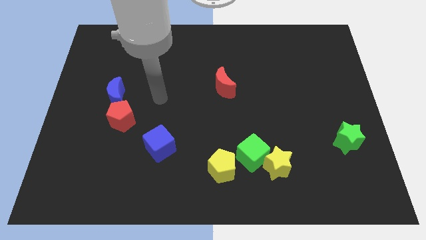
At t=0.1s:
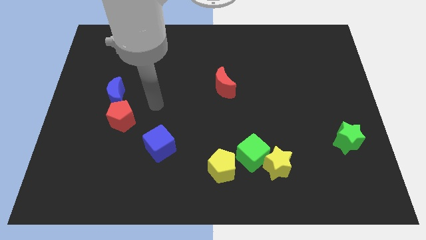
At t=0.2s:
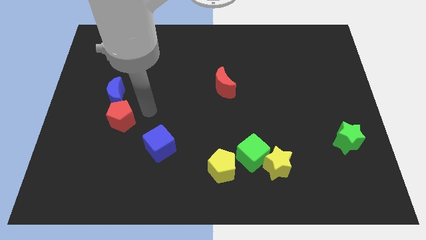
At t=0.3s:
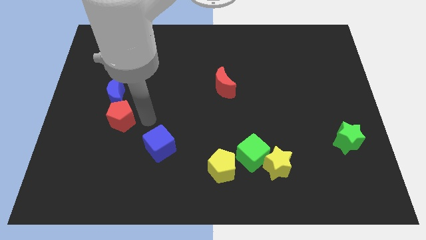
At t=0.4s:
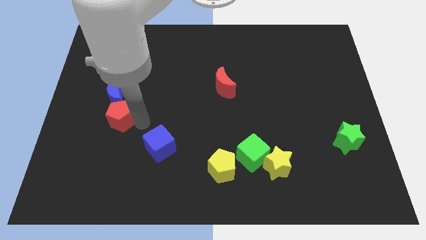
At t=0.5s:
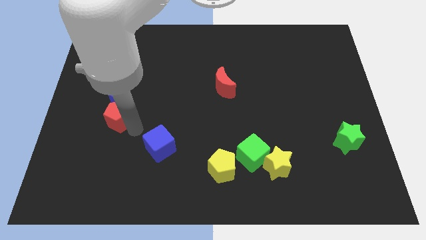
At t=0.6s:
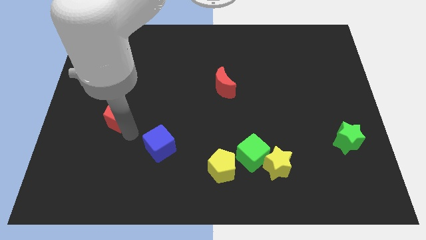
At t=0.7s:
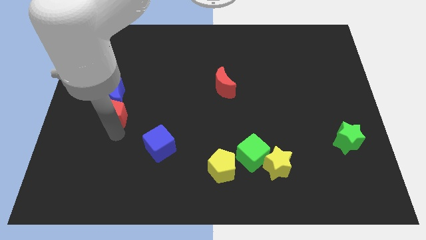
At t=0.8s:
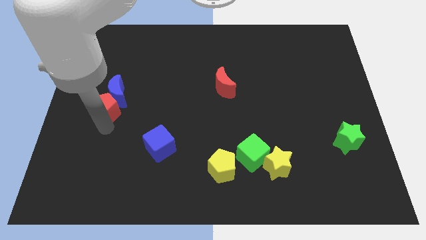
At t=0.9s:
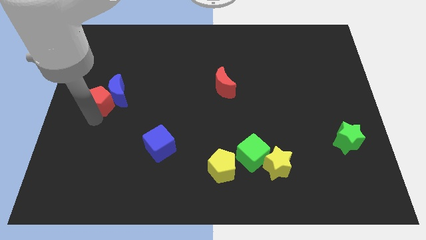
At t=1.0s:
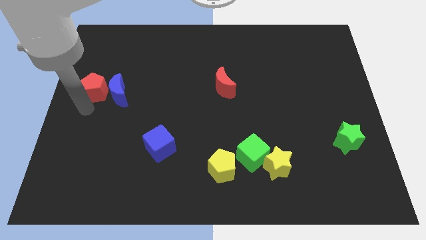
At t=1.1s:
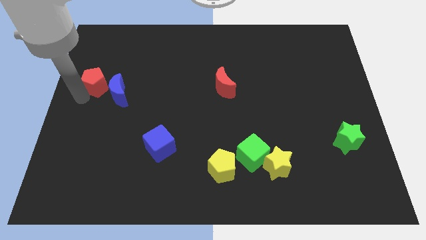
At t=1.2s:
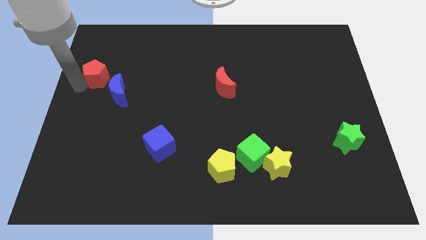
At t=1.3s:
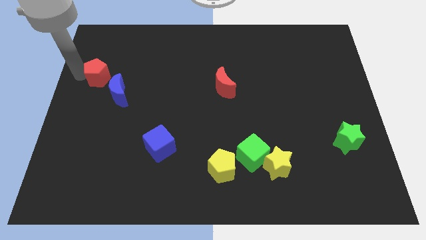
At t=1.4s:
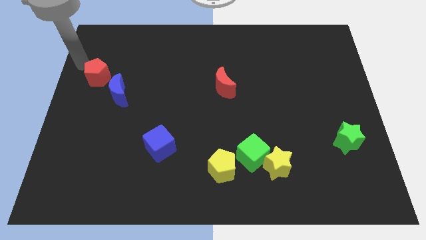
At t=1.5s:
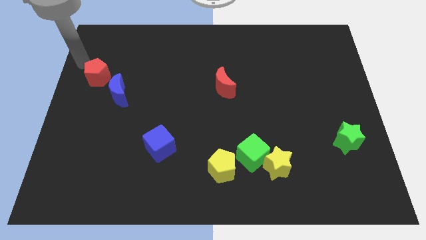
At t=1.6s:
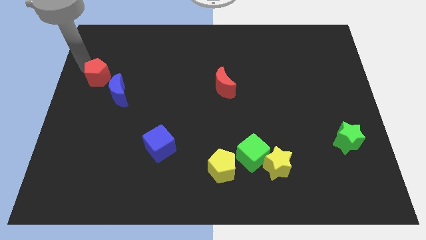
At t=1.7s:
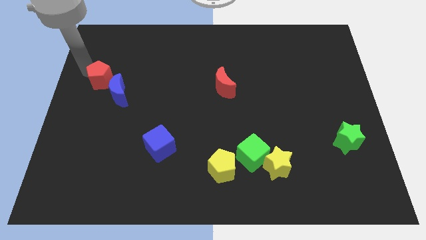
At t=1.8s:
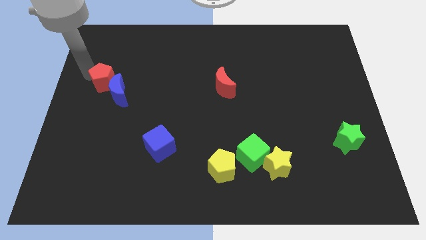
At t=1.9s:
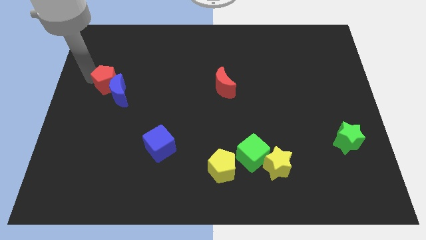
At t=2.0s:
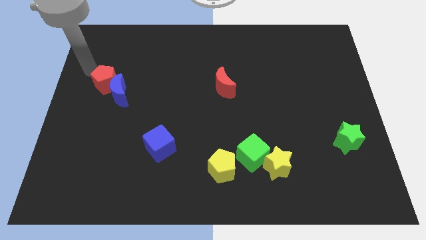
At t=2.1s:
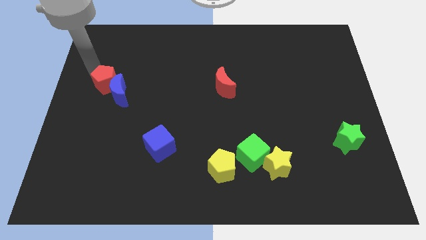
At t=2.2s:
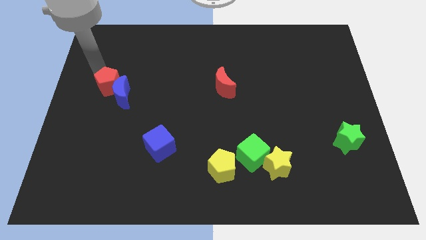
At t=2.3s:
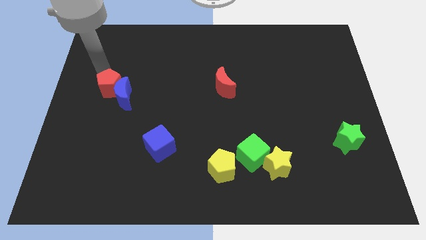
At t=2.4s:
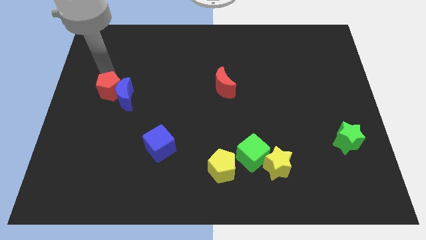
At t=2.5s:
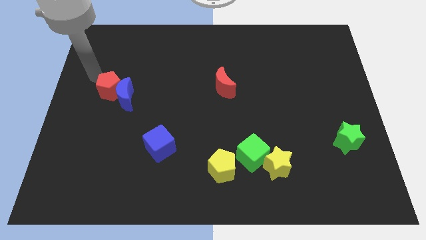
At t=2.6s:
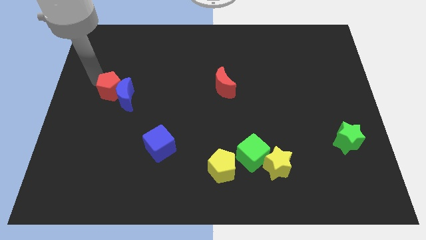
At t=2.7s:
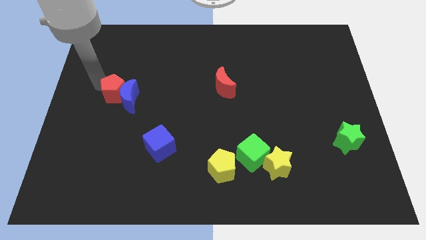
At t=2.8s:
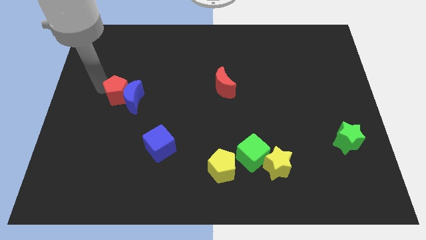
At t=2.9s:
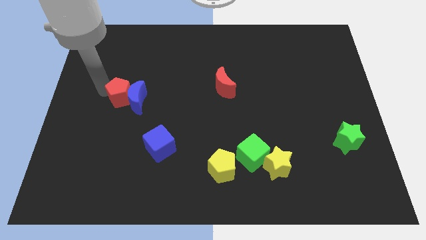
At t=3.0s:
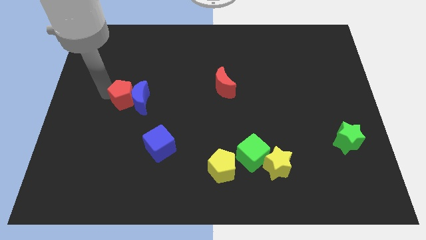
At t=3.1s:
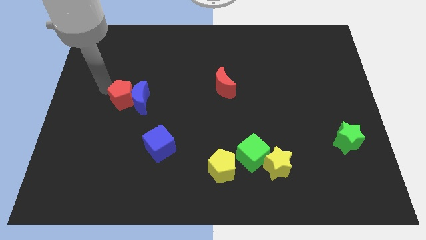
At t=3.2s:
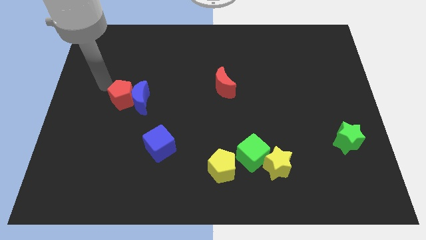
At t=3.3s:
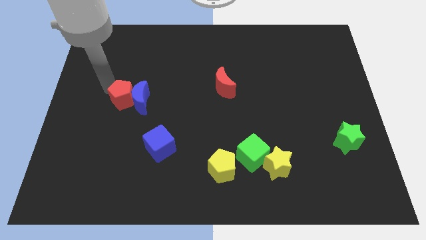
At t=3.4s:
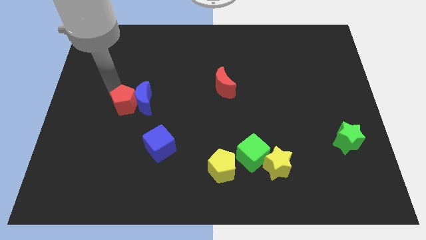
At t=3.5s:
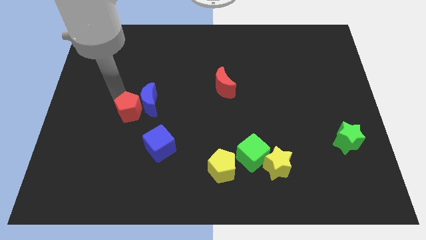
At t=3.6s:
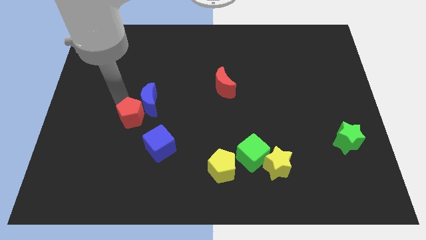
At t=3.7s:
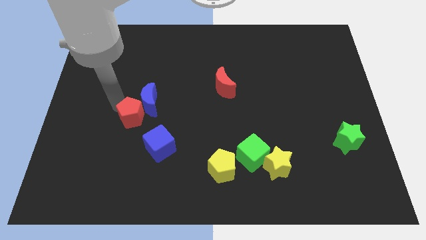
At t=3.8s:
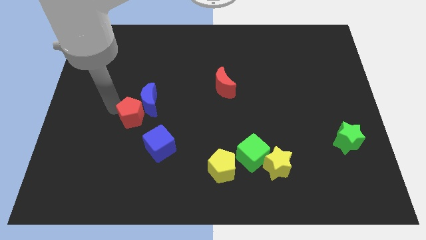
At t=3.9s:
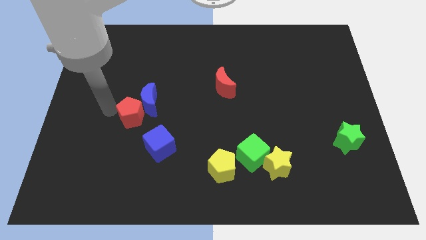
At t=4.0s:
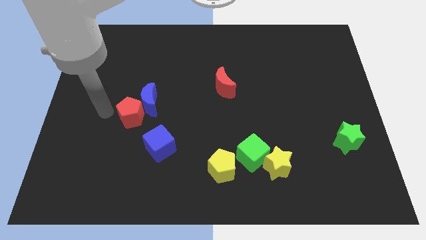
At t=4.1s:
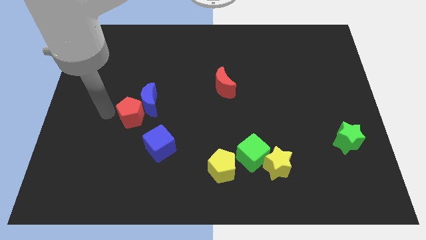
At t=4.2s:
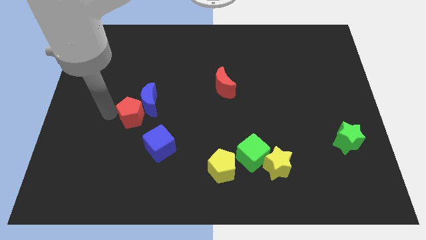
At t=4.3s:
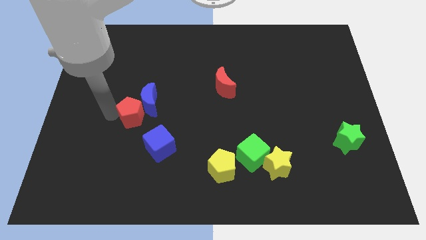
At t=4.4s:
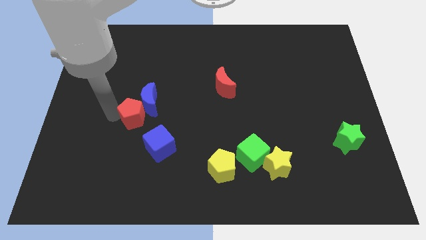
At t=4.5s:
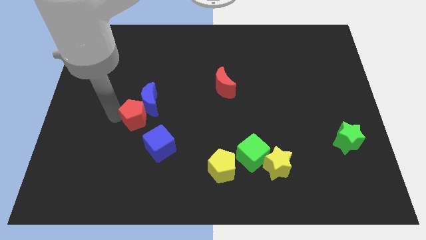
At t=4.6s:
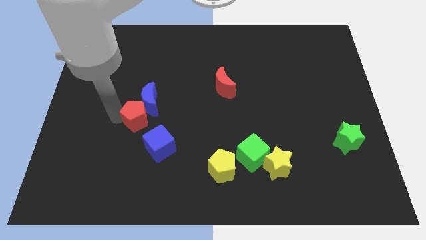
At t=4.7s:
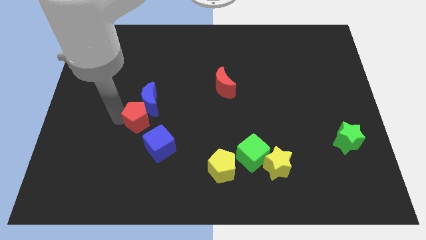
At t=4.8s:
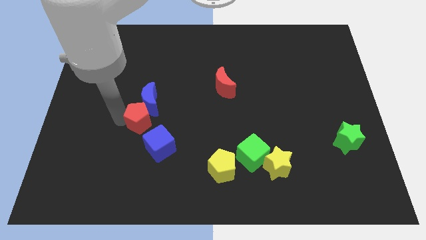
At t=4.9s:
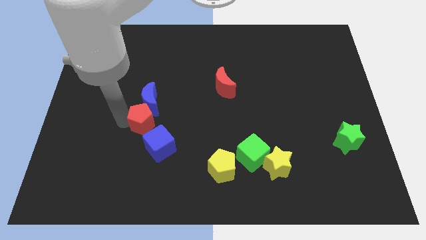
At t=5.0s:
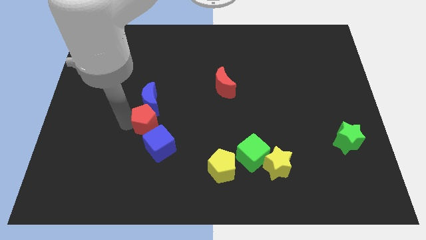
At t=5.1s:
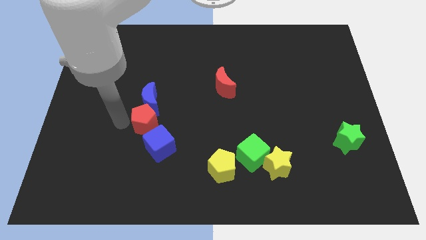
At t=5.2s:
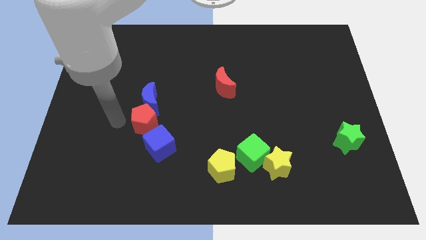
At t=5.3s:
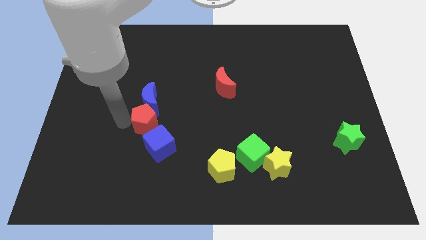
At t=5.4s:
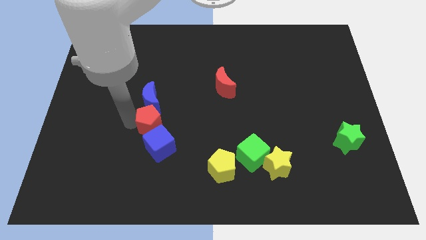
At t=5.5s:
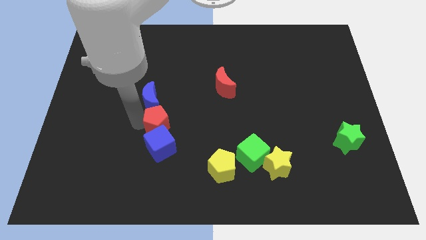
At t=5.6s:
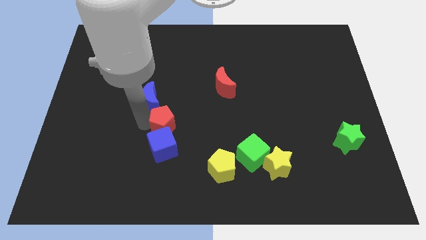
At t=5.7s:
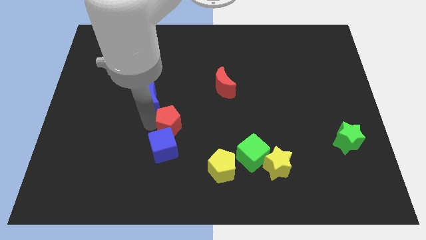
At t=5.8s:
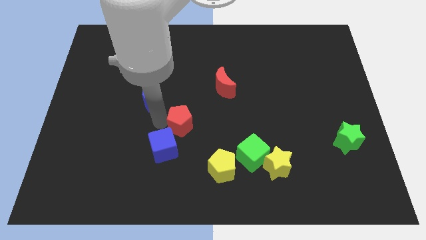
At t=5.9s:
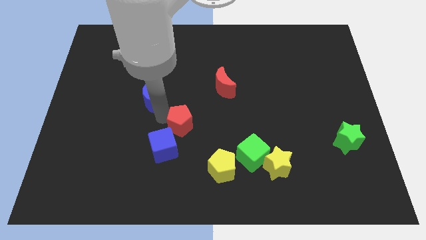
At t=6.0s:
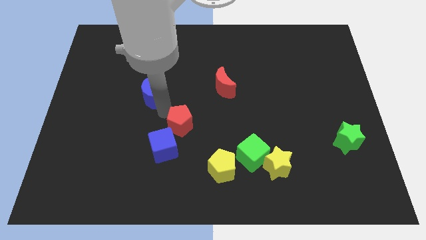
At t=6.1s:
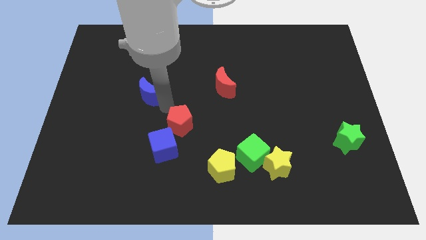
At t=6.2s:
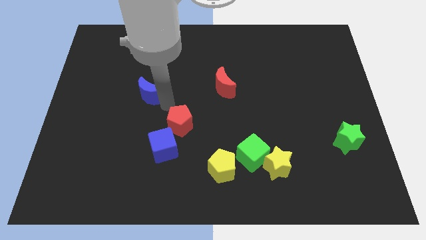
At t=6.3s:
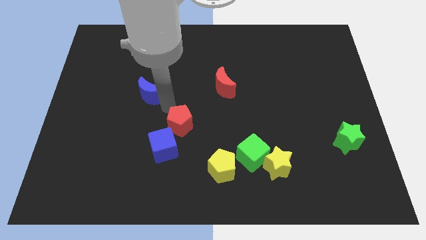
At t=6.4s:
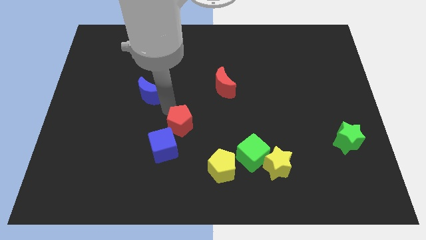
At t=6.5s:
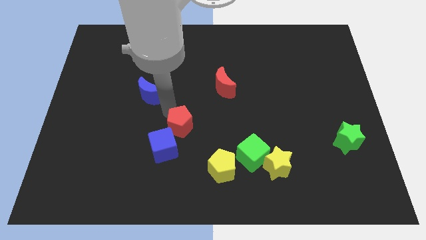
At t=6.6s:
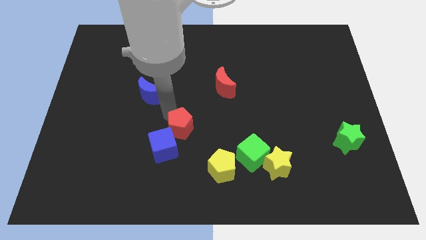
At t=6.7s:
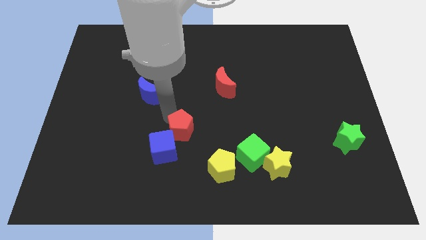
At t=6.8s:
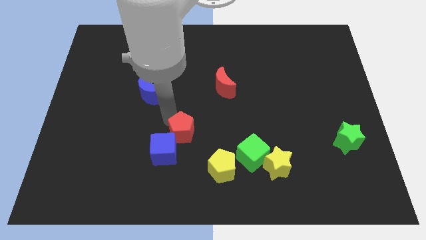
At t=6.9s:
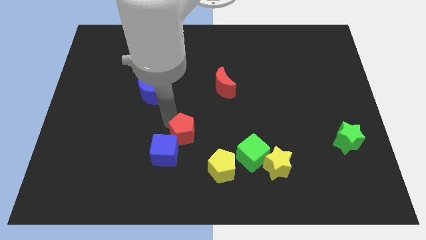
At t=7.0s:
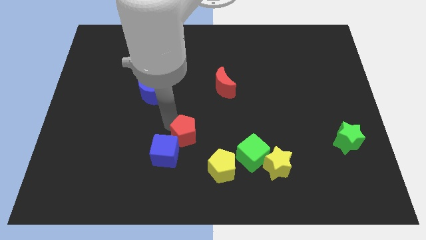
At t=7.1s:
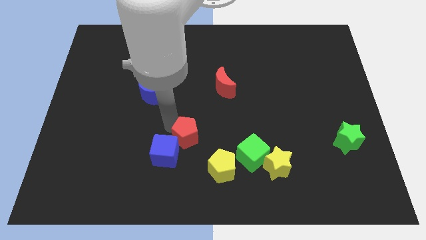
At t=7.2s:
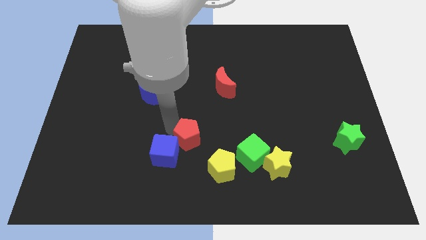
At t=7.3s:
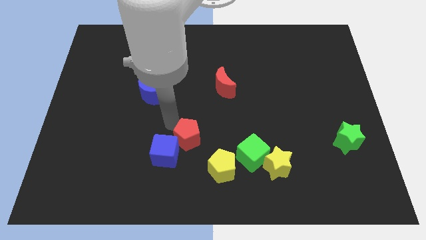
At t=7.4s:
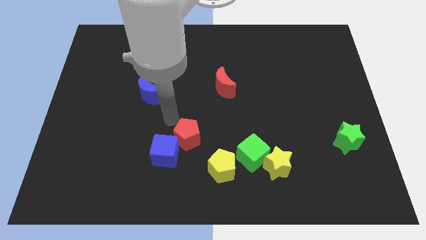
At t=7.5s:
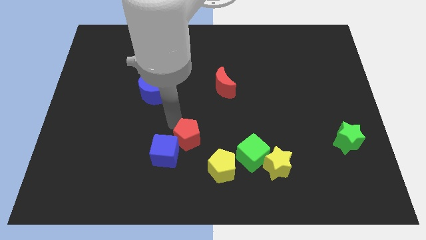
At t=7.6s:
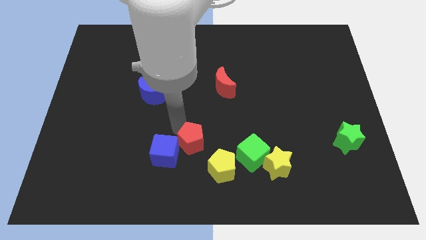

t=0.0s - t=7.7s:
slide the red pentagon left of the green cube
